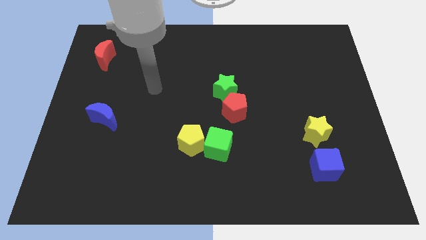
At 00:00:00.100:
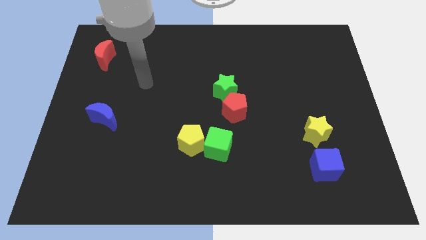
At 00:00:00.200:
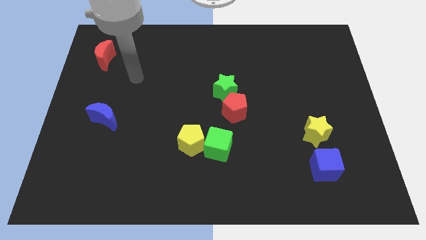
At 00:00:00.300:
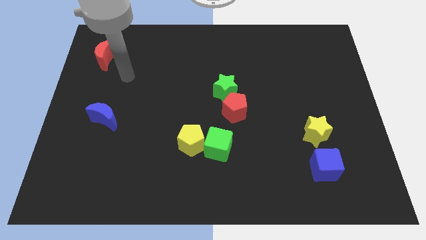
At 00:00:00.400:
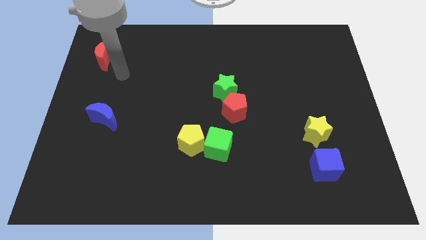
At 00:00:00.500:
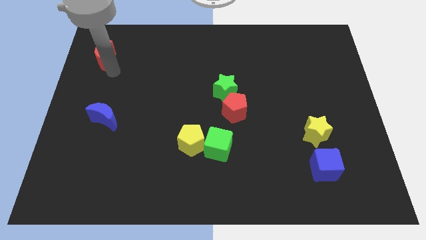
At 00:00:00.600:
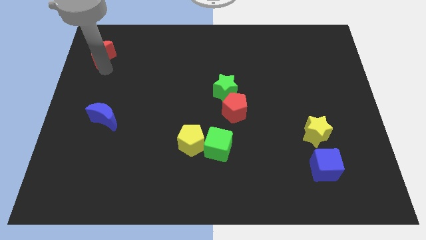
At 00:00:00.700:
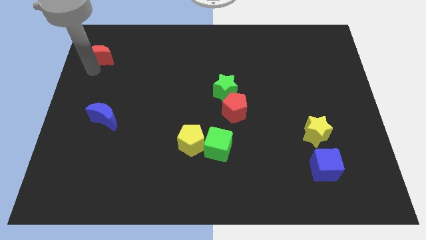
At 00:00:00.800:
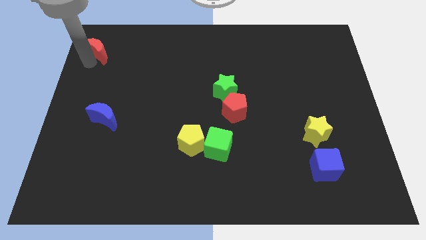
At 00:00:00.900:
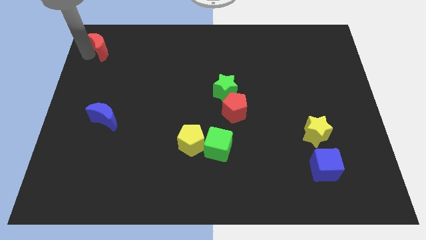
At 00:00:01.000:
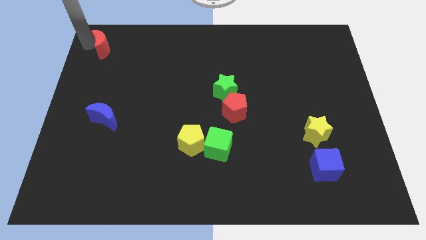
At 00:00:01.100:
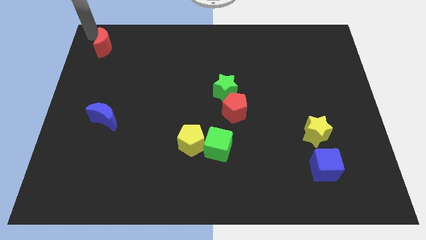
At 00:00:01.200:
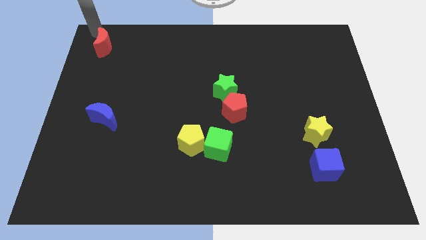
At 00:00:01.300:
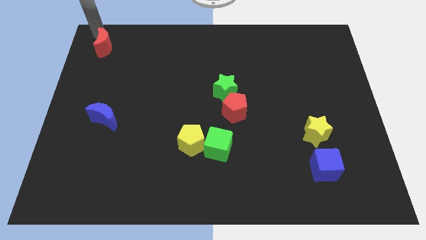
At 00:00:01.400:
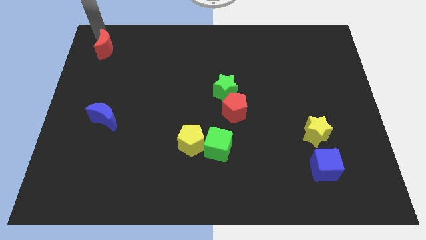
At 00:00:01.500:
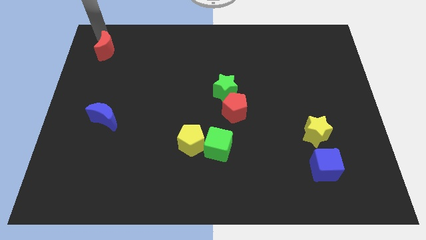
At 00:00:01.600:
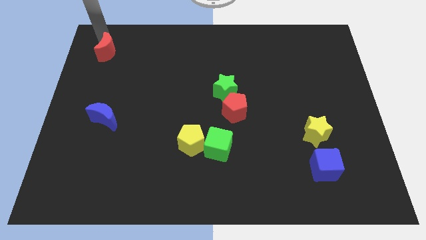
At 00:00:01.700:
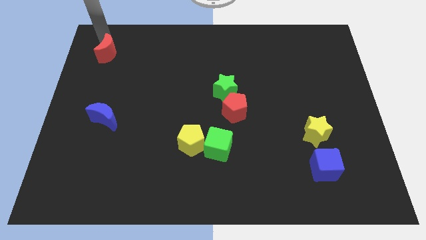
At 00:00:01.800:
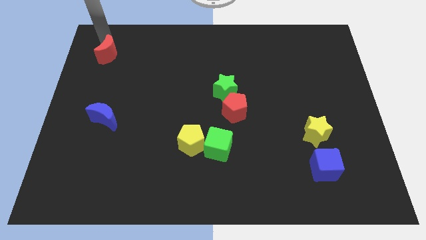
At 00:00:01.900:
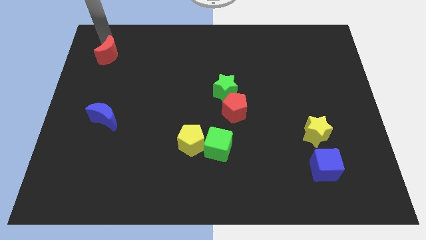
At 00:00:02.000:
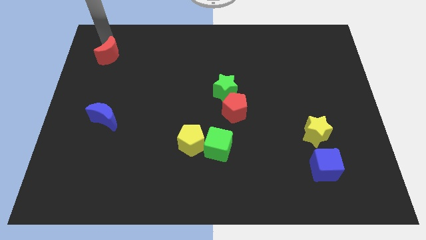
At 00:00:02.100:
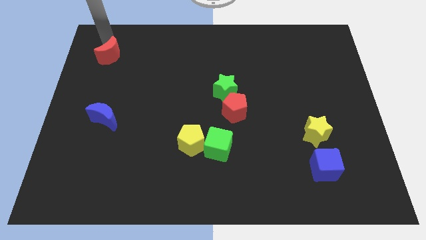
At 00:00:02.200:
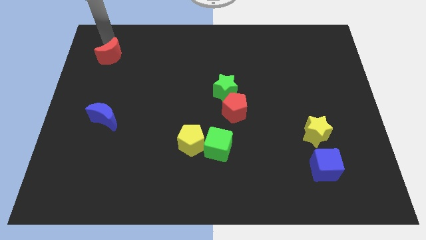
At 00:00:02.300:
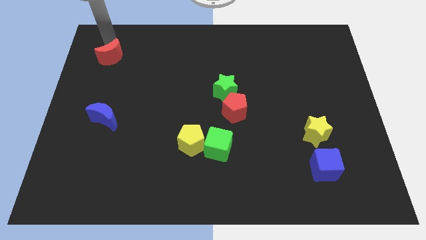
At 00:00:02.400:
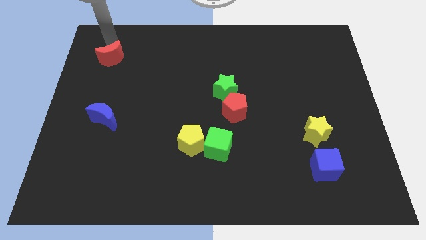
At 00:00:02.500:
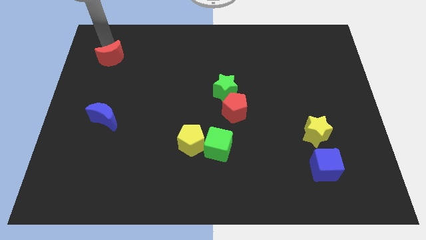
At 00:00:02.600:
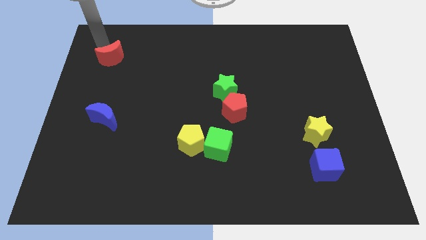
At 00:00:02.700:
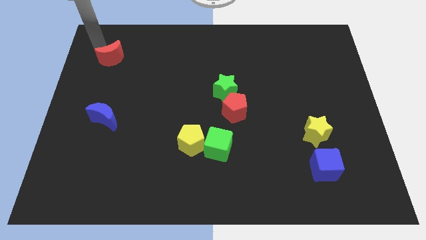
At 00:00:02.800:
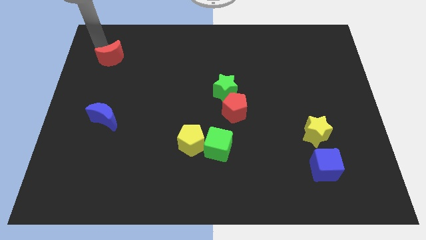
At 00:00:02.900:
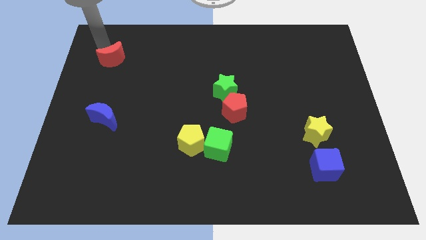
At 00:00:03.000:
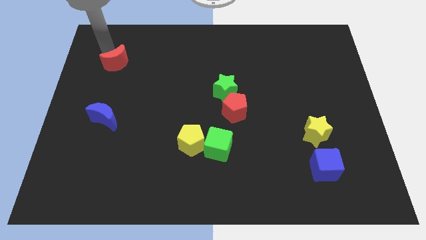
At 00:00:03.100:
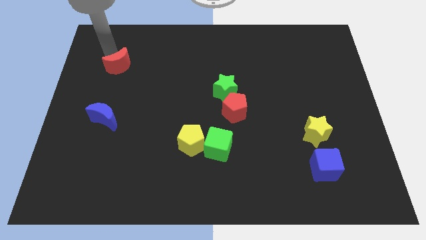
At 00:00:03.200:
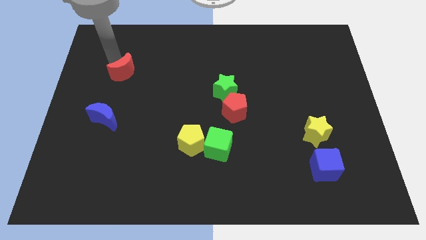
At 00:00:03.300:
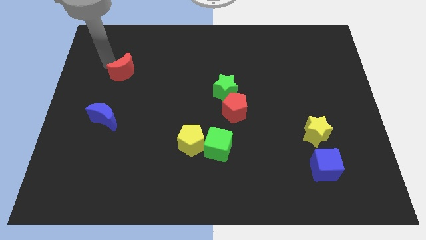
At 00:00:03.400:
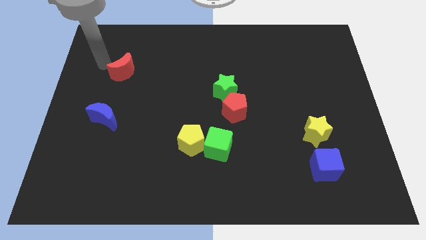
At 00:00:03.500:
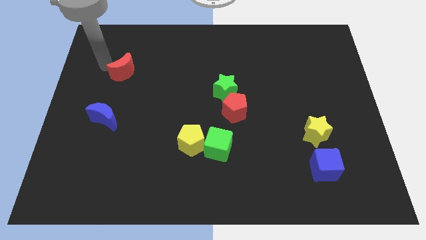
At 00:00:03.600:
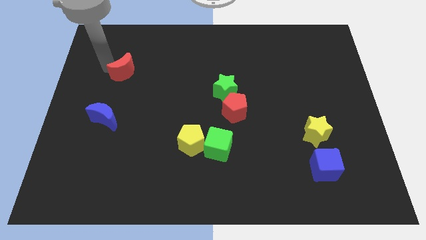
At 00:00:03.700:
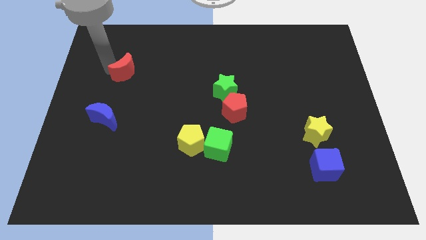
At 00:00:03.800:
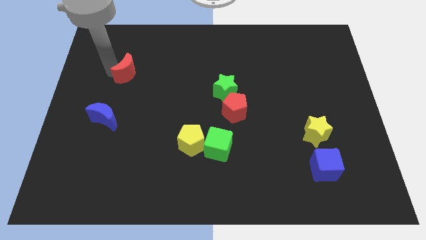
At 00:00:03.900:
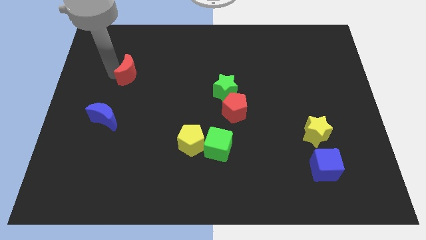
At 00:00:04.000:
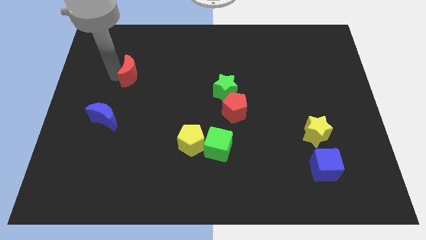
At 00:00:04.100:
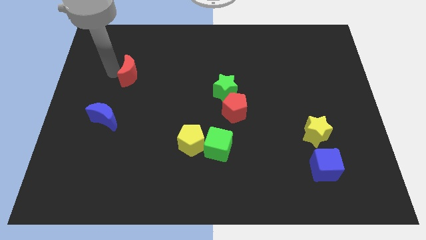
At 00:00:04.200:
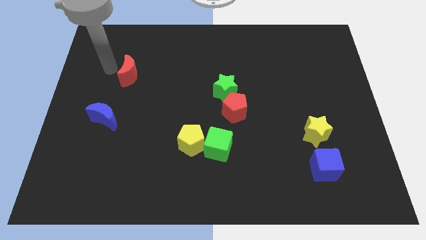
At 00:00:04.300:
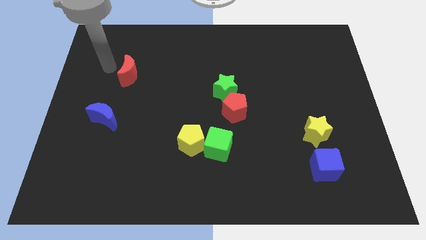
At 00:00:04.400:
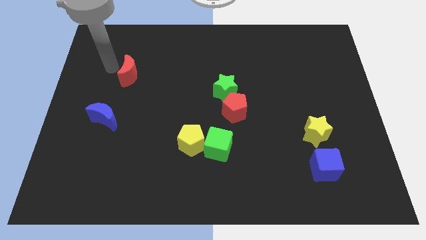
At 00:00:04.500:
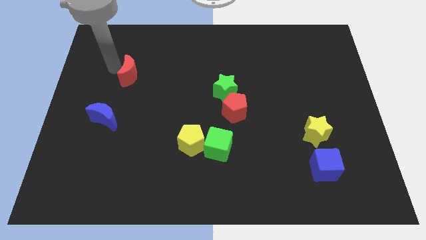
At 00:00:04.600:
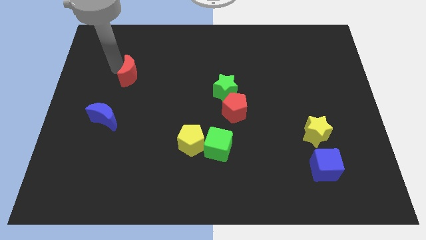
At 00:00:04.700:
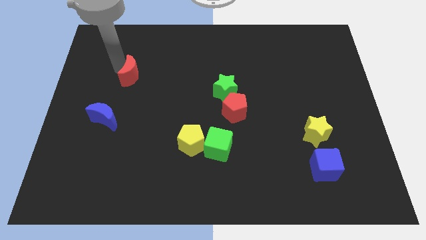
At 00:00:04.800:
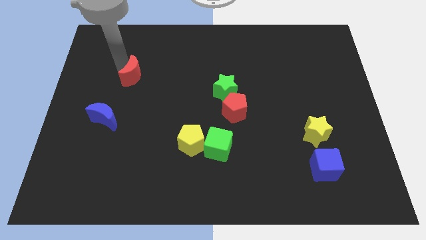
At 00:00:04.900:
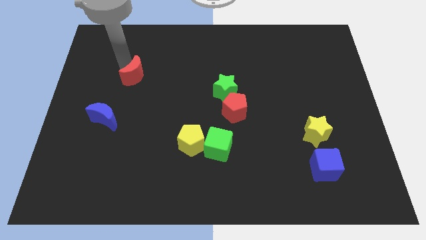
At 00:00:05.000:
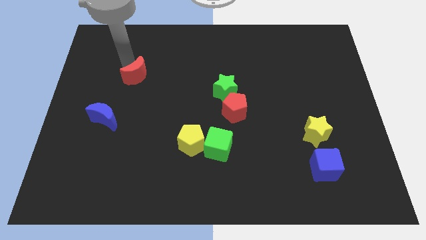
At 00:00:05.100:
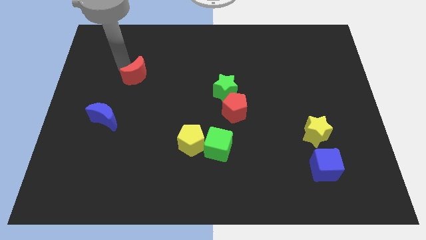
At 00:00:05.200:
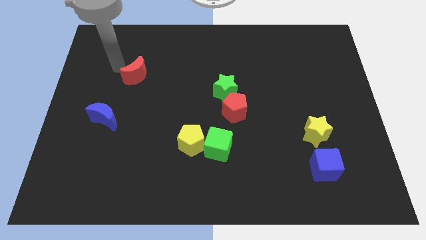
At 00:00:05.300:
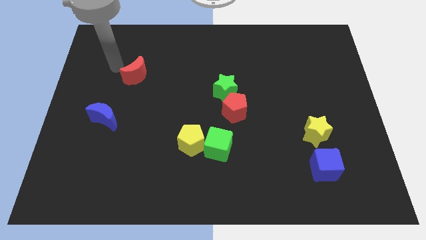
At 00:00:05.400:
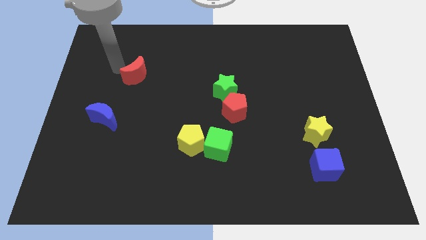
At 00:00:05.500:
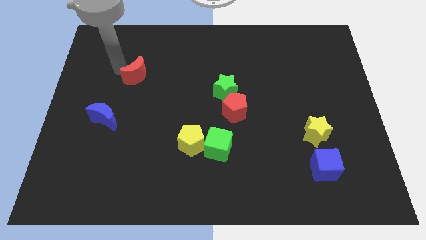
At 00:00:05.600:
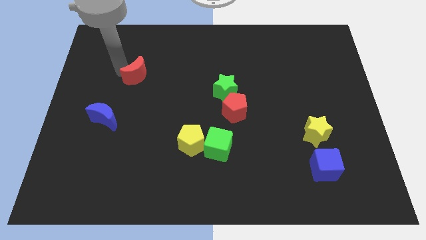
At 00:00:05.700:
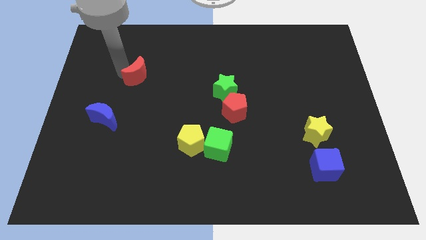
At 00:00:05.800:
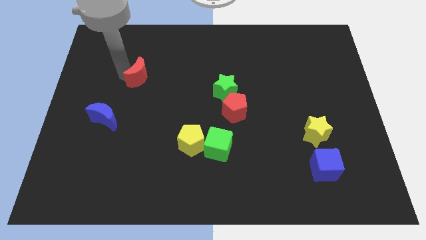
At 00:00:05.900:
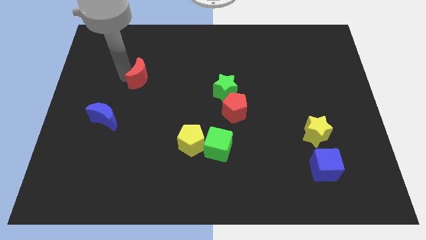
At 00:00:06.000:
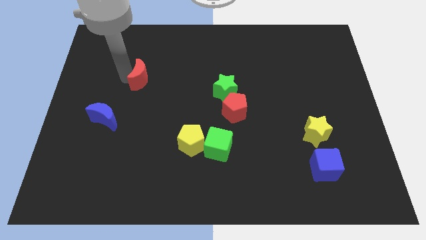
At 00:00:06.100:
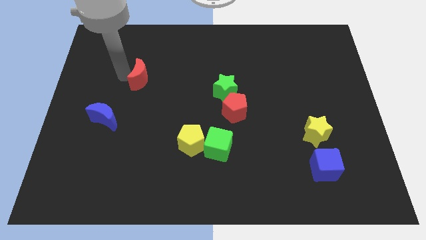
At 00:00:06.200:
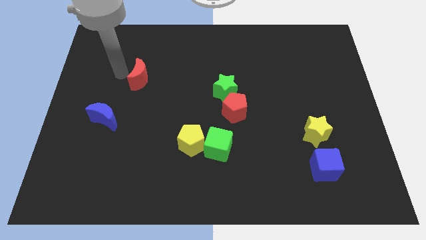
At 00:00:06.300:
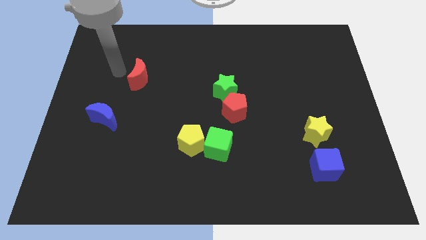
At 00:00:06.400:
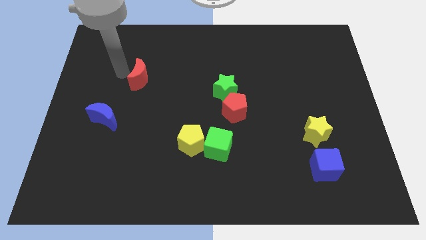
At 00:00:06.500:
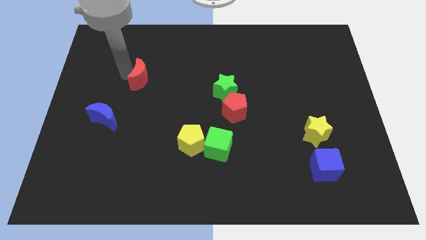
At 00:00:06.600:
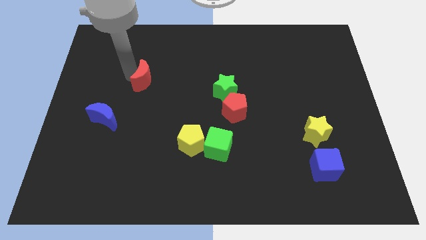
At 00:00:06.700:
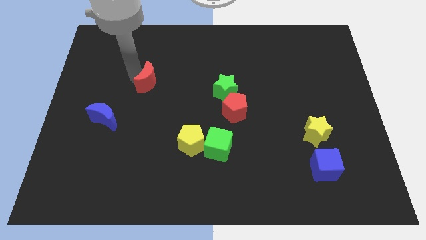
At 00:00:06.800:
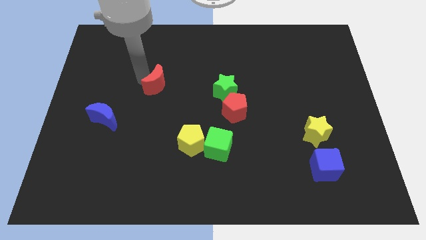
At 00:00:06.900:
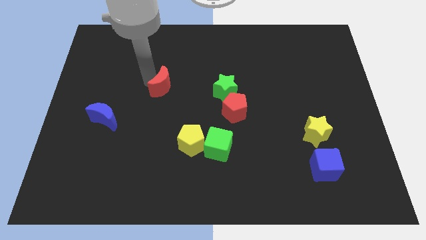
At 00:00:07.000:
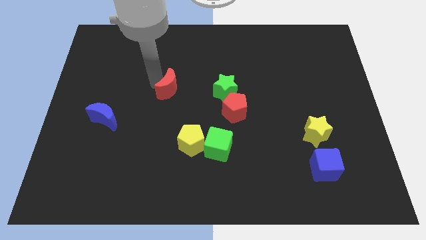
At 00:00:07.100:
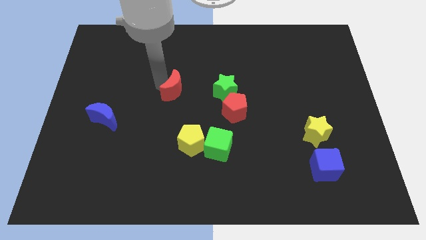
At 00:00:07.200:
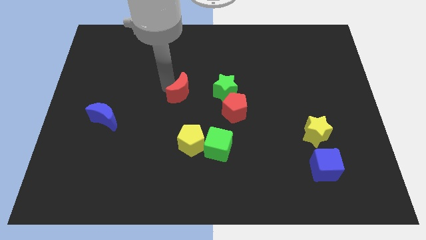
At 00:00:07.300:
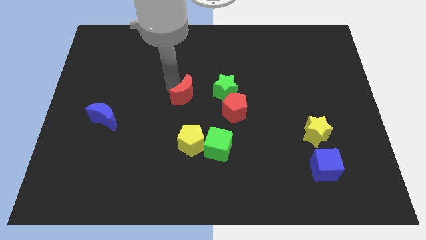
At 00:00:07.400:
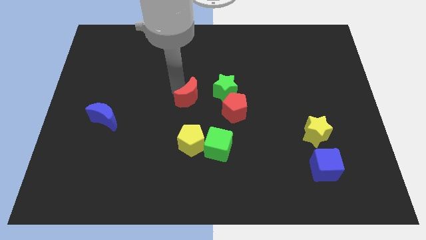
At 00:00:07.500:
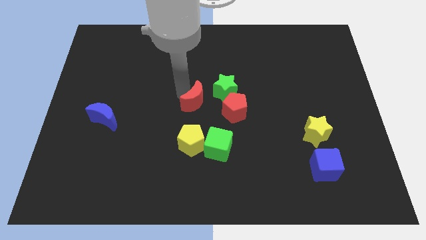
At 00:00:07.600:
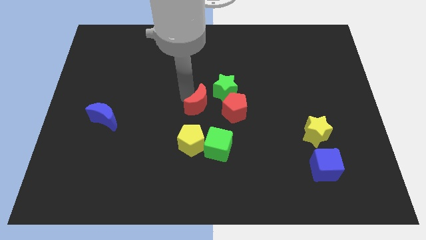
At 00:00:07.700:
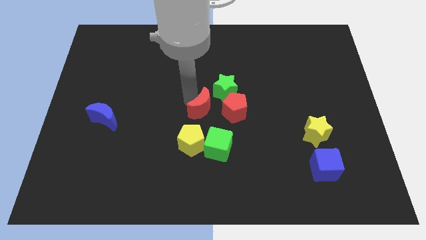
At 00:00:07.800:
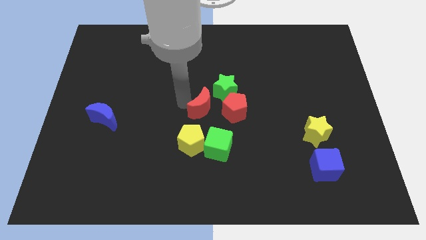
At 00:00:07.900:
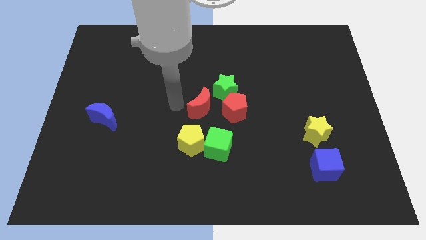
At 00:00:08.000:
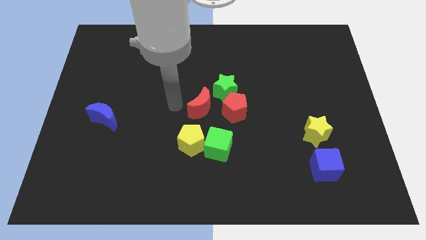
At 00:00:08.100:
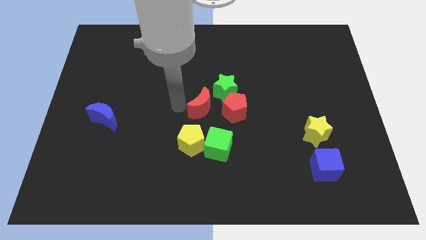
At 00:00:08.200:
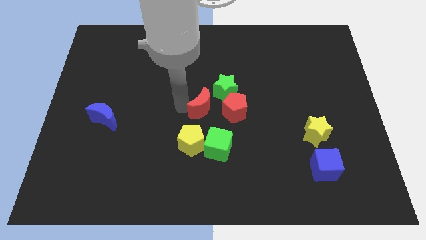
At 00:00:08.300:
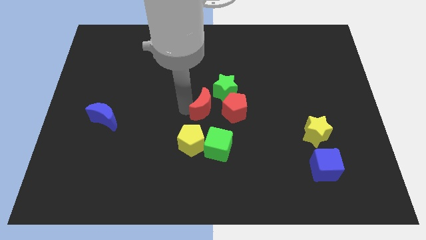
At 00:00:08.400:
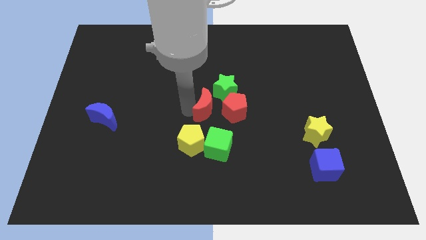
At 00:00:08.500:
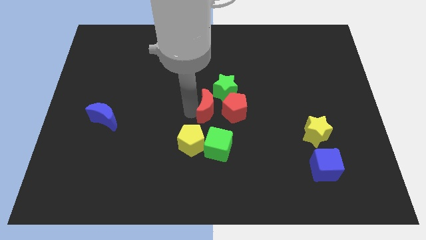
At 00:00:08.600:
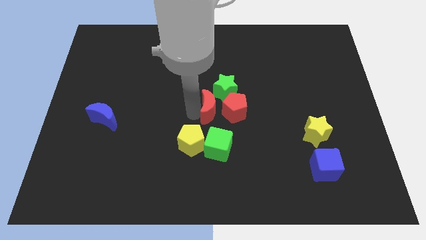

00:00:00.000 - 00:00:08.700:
slide the red moon next to the red pentagon
